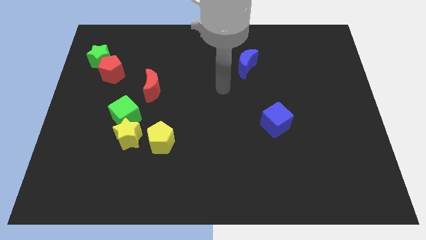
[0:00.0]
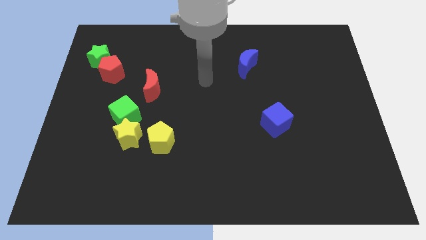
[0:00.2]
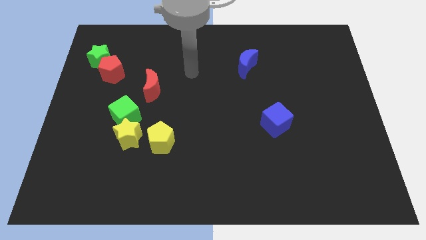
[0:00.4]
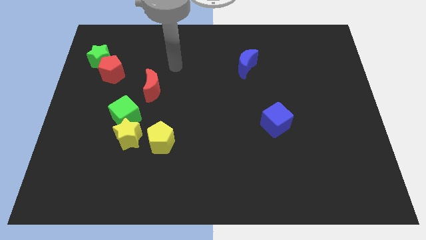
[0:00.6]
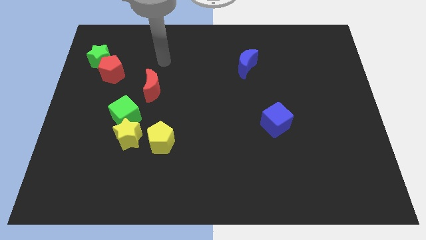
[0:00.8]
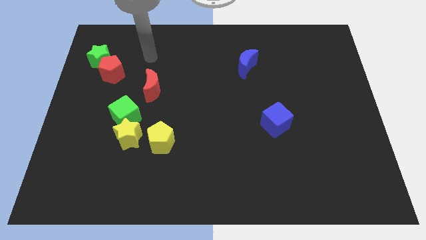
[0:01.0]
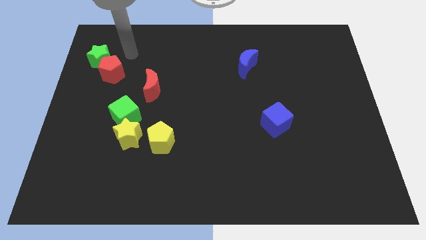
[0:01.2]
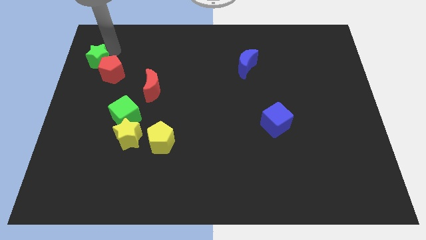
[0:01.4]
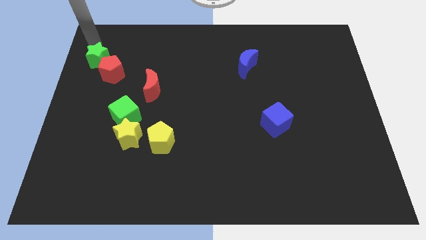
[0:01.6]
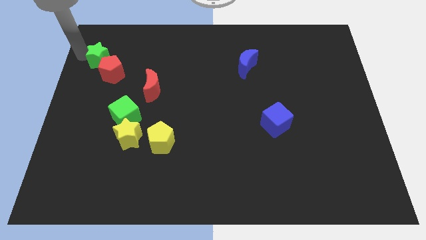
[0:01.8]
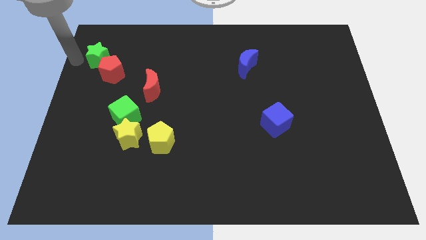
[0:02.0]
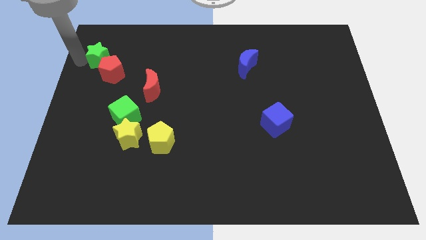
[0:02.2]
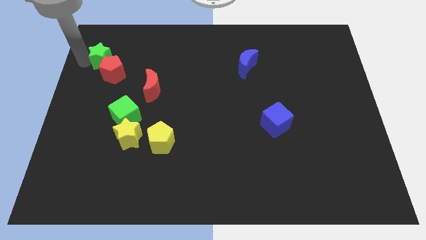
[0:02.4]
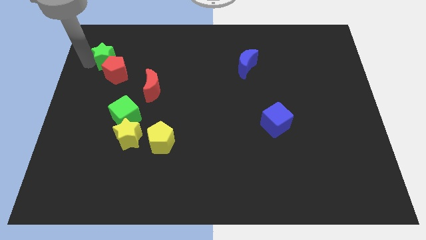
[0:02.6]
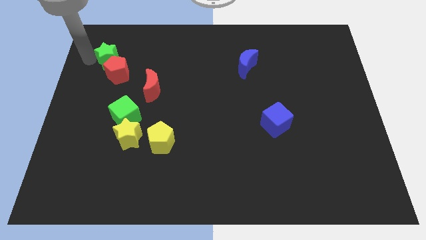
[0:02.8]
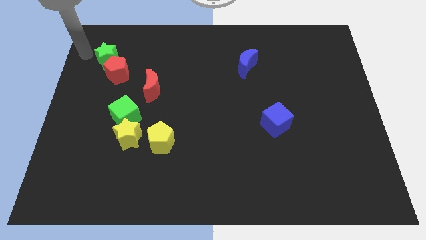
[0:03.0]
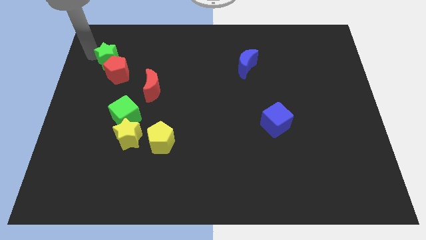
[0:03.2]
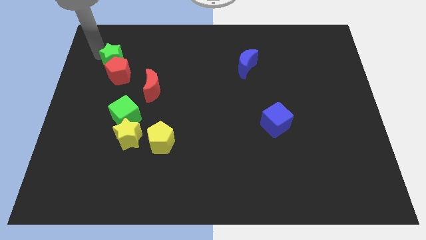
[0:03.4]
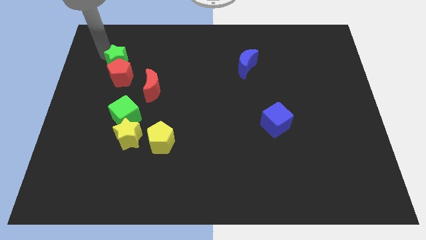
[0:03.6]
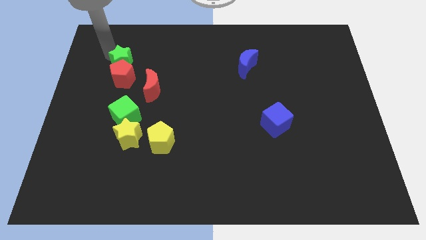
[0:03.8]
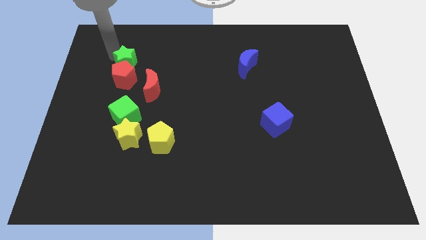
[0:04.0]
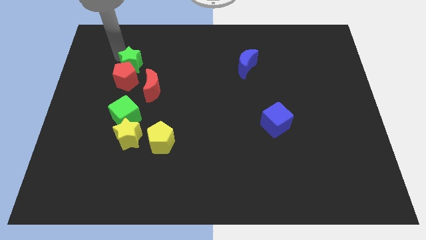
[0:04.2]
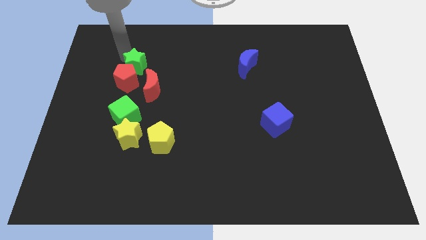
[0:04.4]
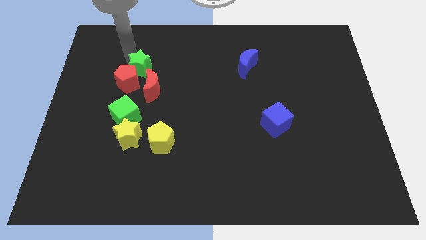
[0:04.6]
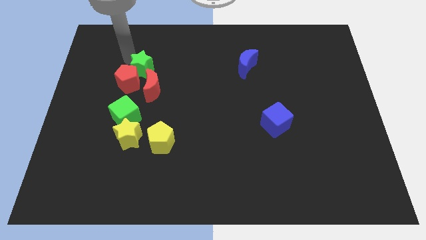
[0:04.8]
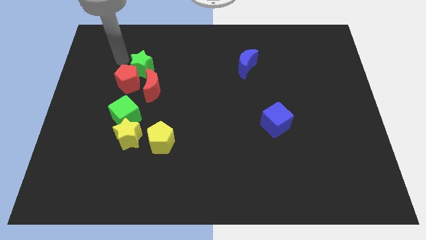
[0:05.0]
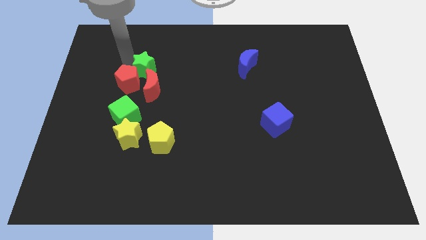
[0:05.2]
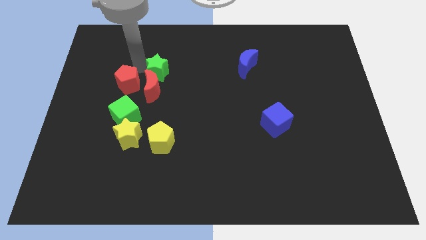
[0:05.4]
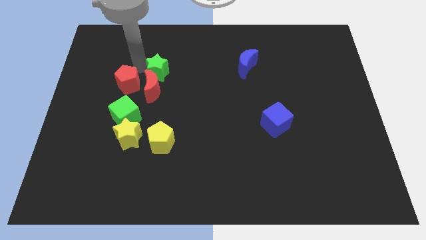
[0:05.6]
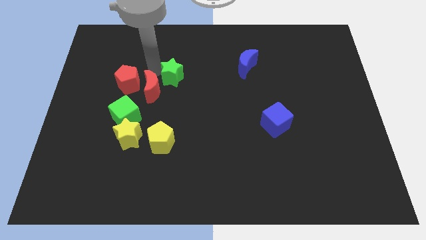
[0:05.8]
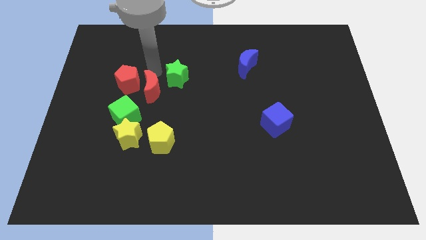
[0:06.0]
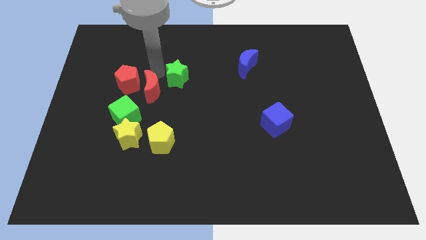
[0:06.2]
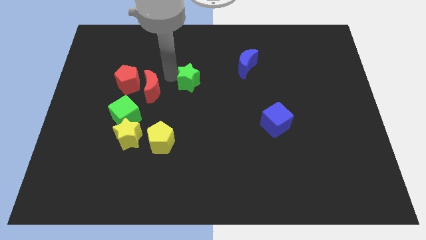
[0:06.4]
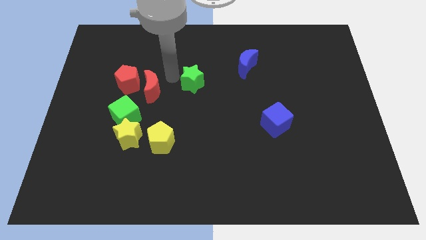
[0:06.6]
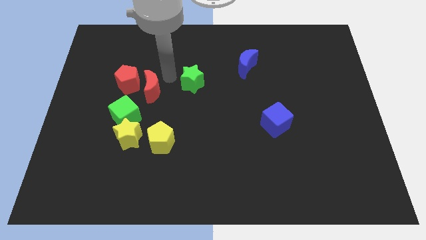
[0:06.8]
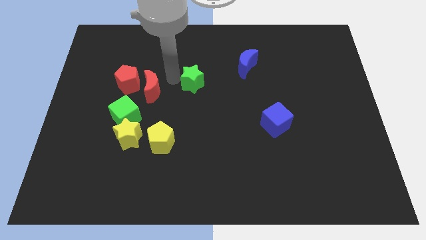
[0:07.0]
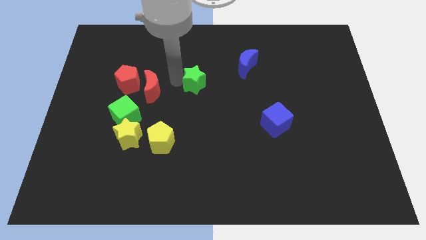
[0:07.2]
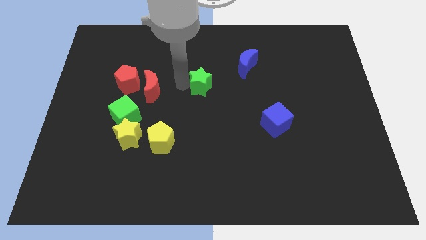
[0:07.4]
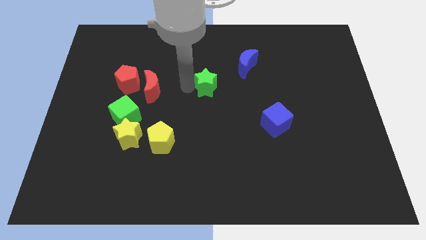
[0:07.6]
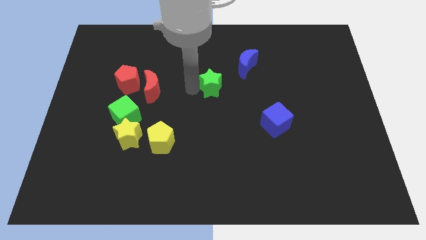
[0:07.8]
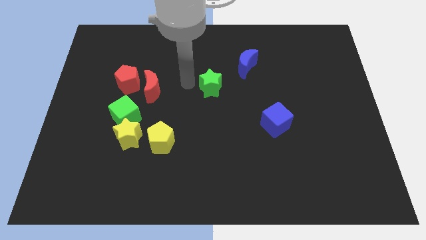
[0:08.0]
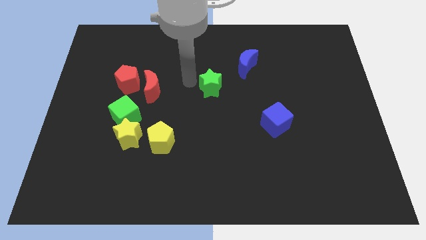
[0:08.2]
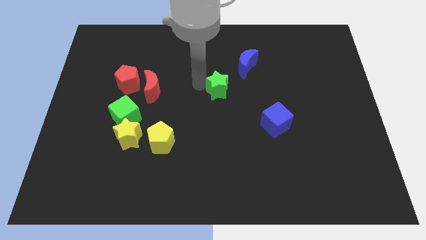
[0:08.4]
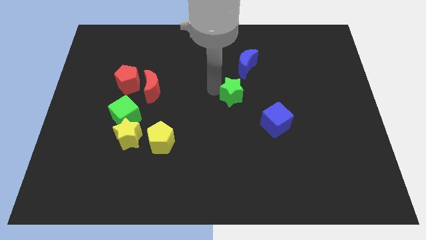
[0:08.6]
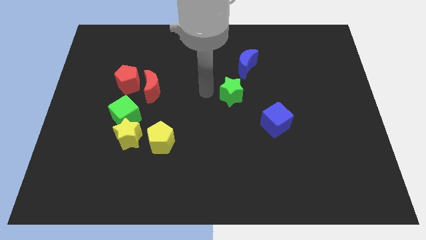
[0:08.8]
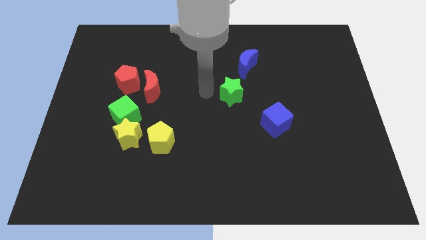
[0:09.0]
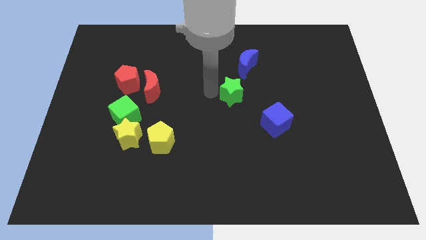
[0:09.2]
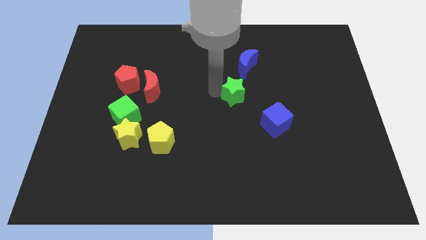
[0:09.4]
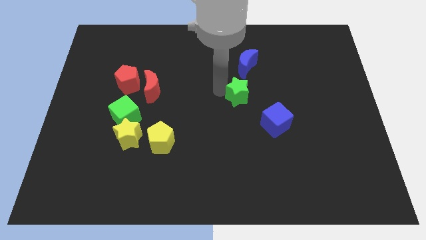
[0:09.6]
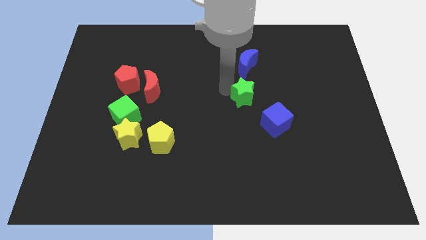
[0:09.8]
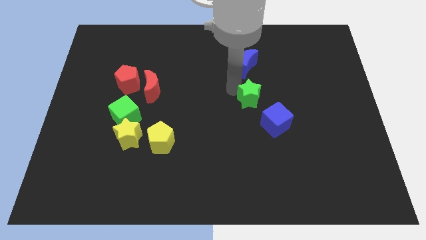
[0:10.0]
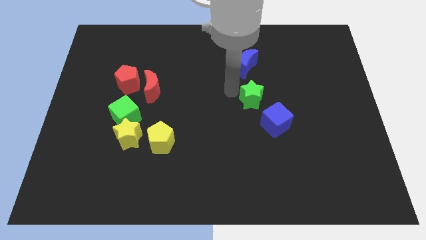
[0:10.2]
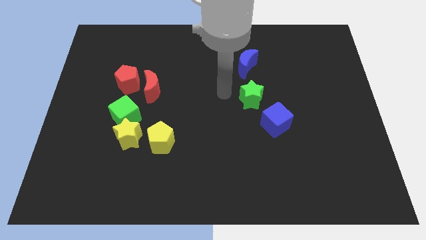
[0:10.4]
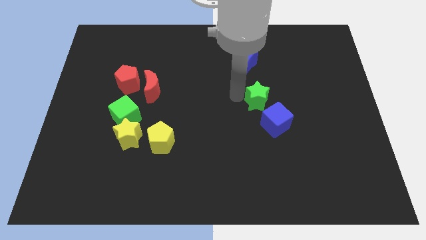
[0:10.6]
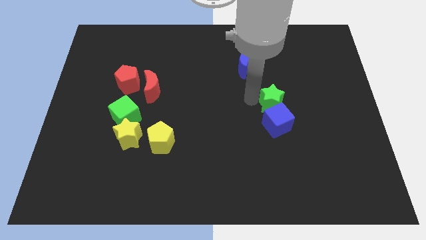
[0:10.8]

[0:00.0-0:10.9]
move the green star to the top right of the blue cube

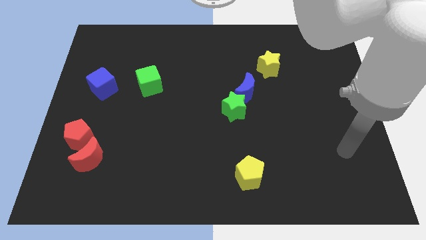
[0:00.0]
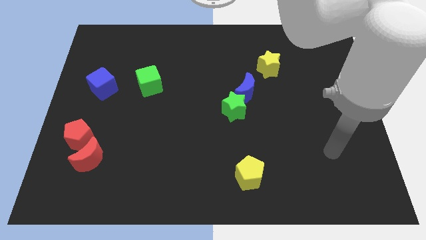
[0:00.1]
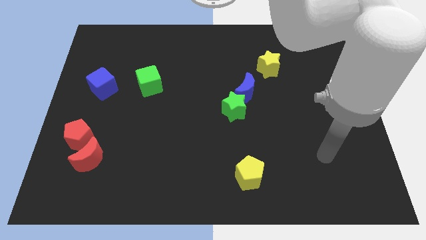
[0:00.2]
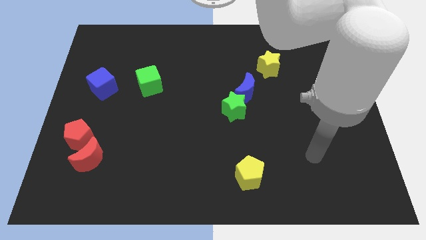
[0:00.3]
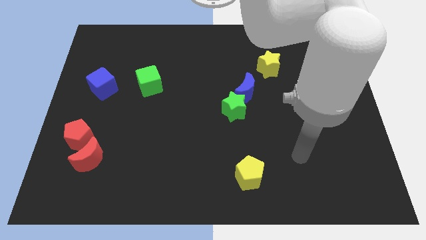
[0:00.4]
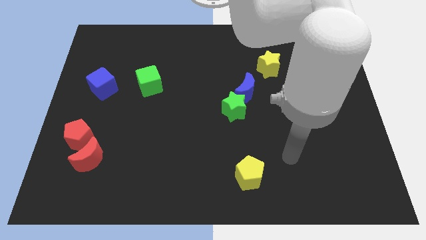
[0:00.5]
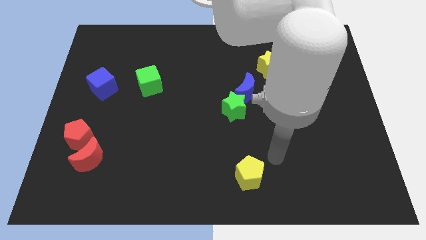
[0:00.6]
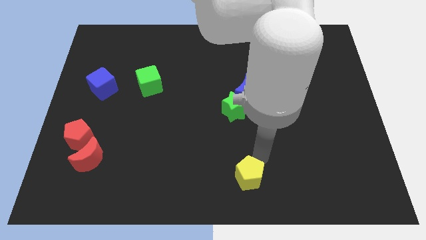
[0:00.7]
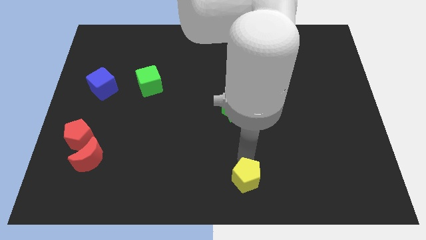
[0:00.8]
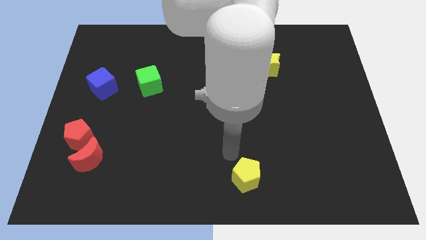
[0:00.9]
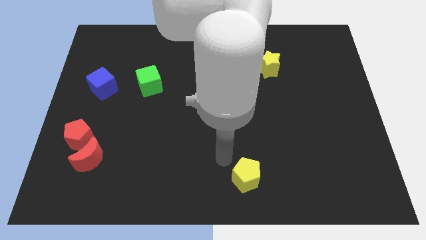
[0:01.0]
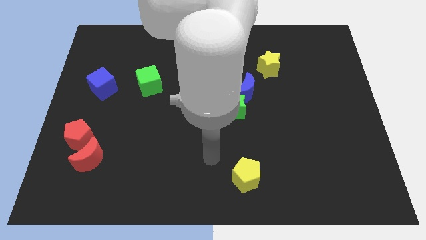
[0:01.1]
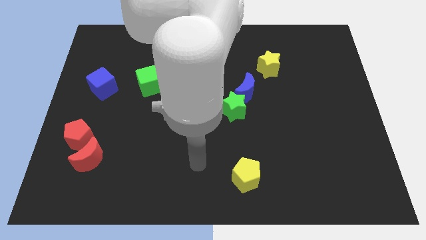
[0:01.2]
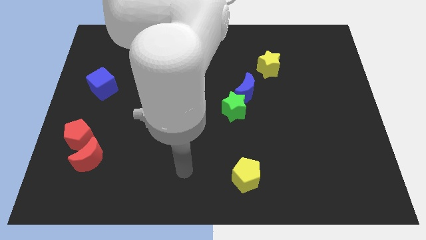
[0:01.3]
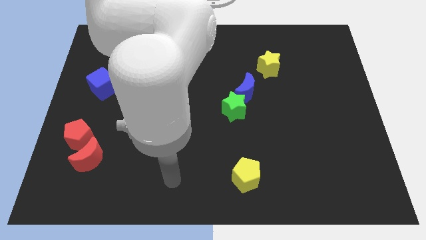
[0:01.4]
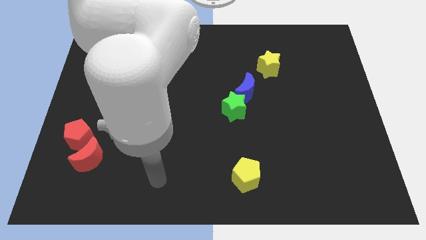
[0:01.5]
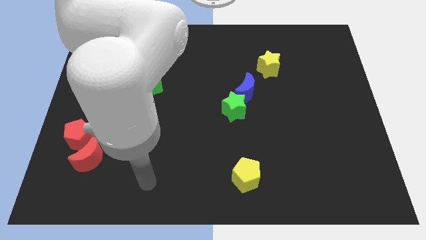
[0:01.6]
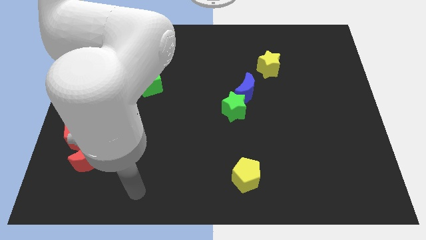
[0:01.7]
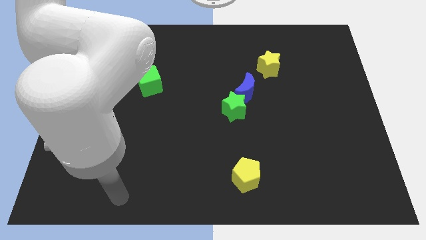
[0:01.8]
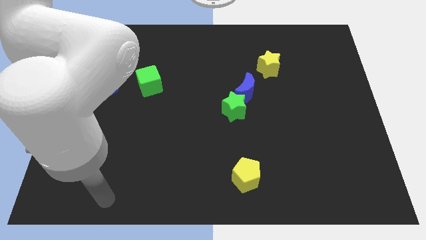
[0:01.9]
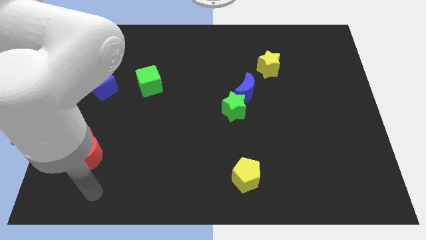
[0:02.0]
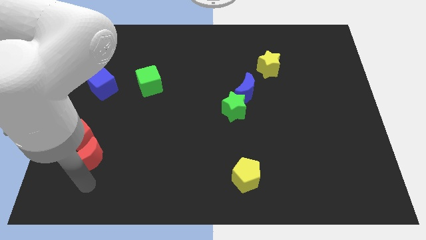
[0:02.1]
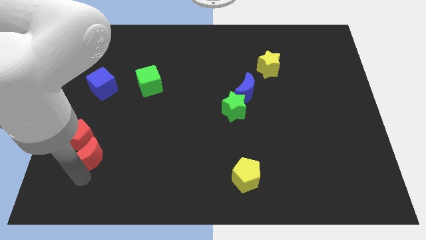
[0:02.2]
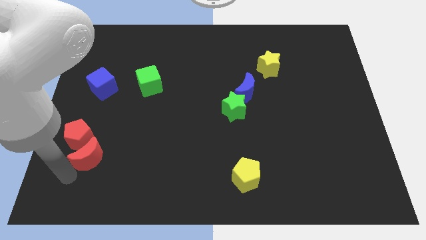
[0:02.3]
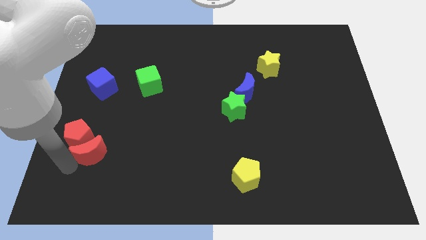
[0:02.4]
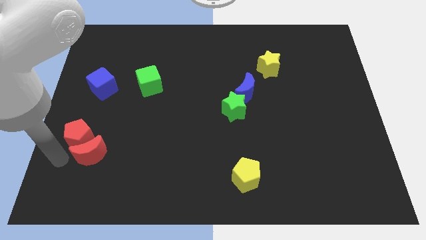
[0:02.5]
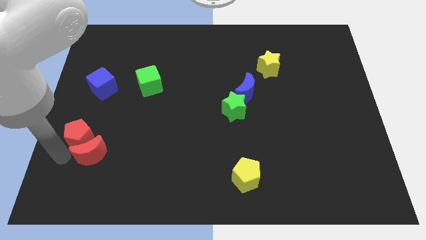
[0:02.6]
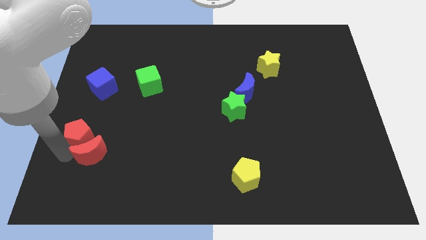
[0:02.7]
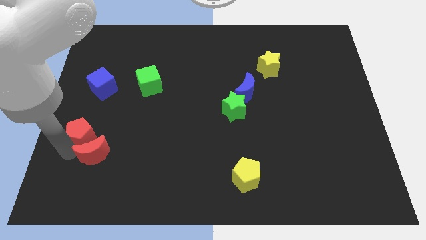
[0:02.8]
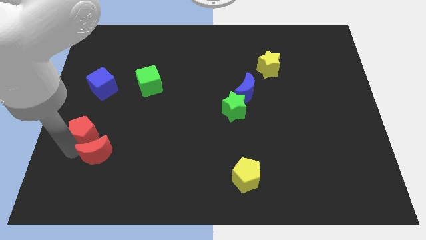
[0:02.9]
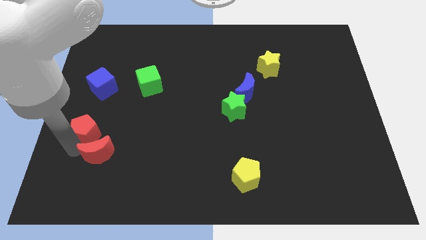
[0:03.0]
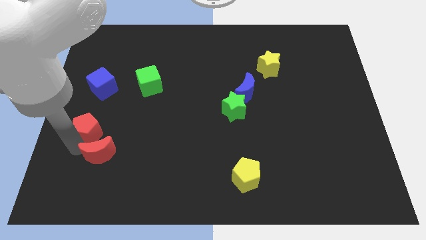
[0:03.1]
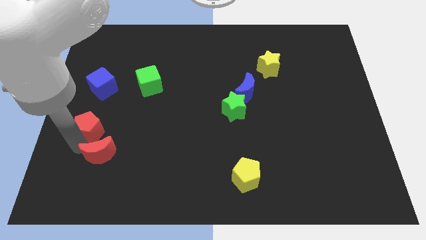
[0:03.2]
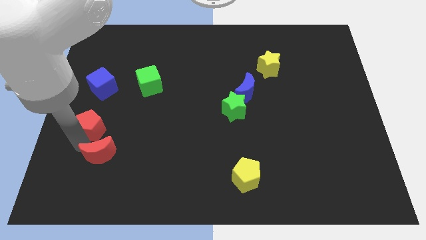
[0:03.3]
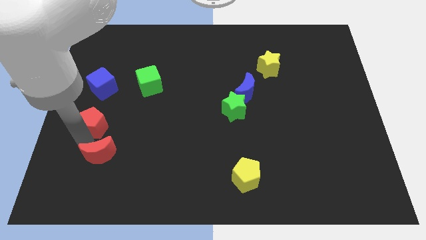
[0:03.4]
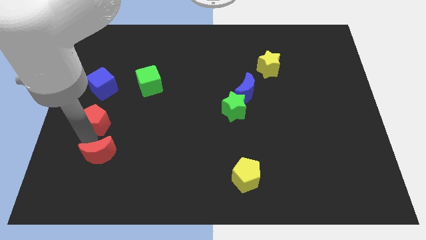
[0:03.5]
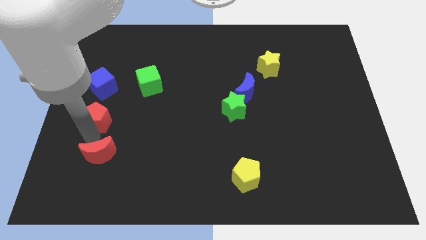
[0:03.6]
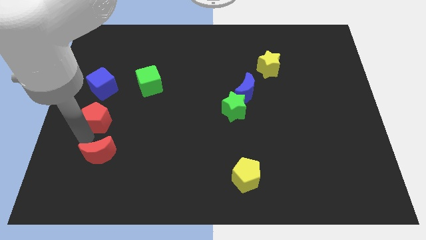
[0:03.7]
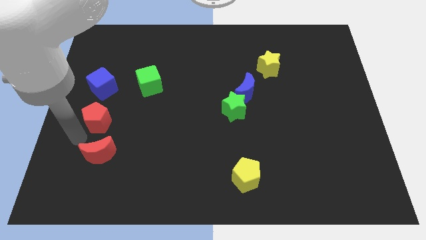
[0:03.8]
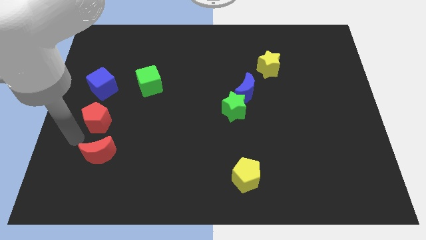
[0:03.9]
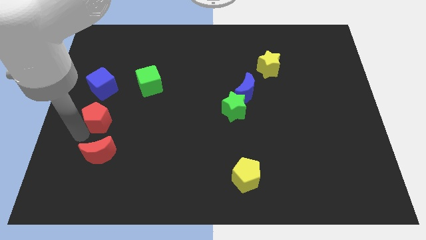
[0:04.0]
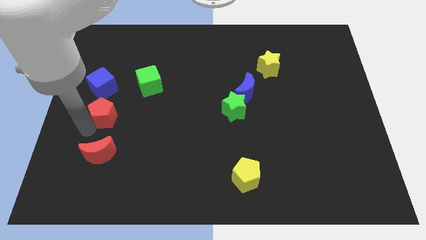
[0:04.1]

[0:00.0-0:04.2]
push the red pentagon diagonally down and to the right of the blue cube
